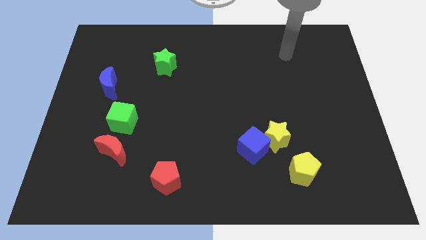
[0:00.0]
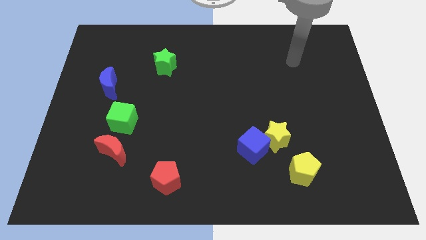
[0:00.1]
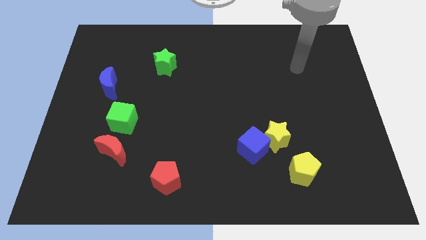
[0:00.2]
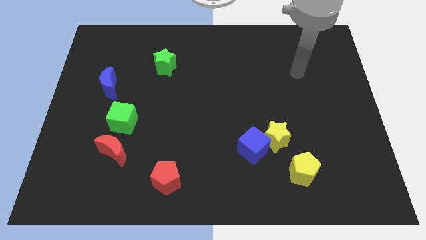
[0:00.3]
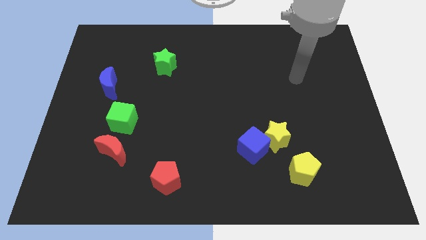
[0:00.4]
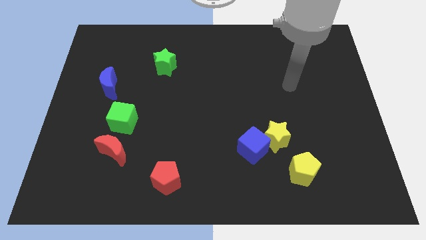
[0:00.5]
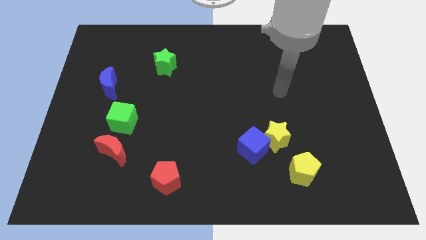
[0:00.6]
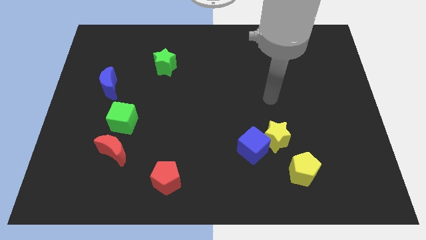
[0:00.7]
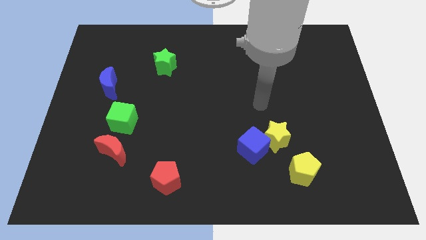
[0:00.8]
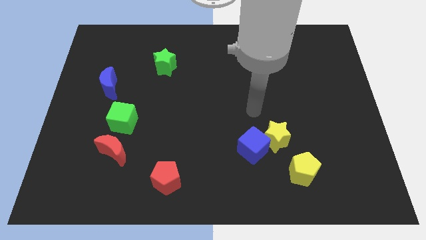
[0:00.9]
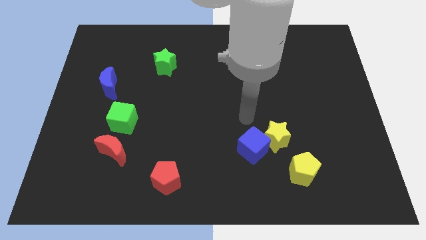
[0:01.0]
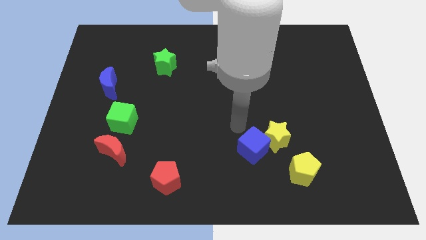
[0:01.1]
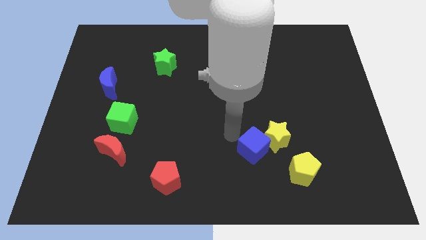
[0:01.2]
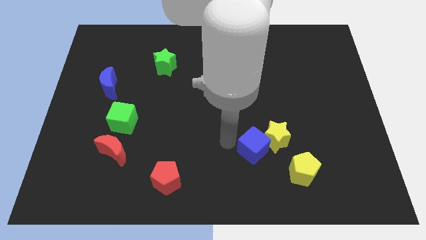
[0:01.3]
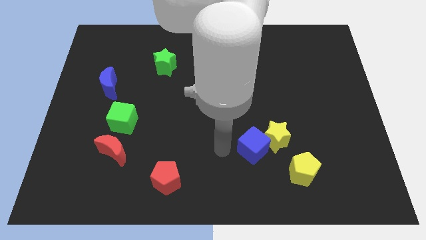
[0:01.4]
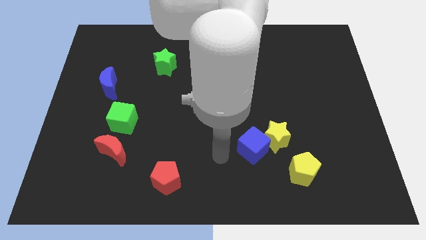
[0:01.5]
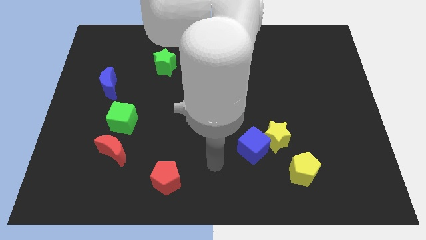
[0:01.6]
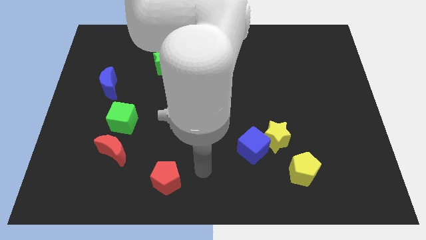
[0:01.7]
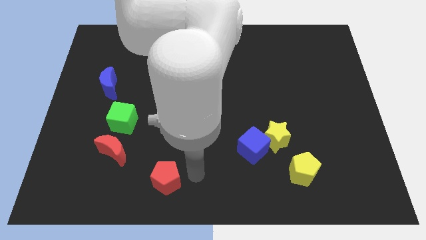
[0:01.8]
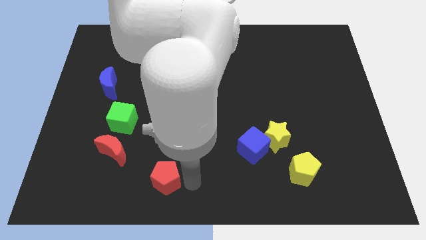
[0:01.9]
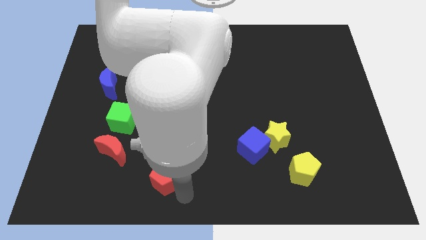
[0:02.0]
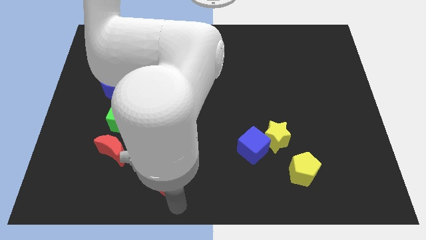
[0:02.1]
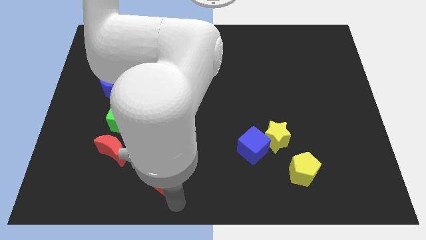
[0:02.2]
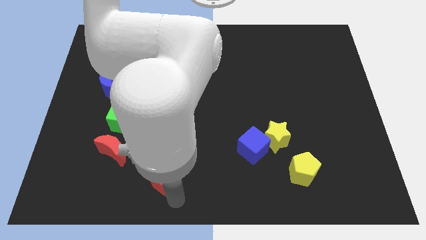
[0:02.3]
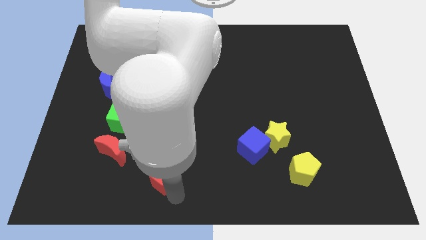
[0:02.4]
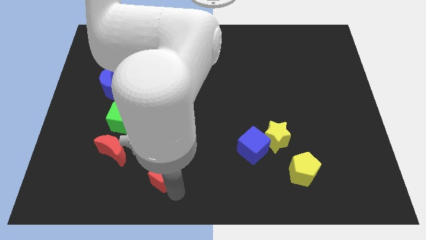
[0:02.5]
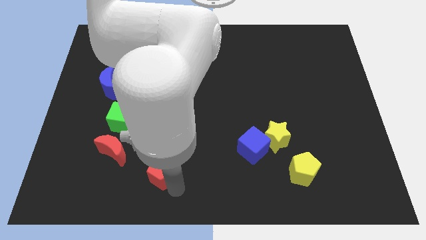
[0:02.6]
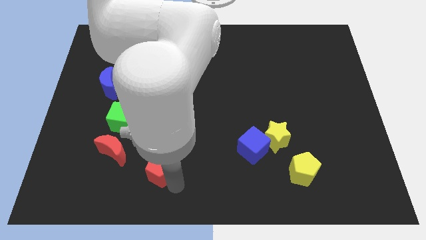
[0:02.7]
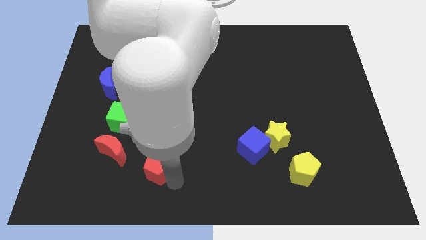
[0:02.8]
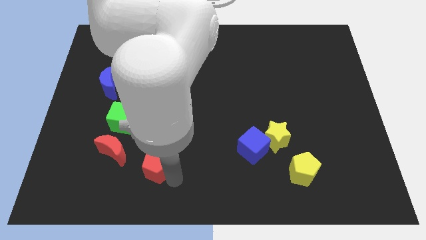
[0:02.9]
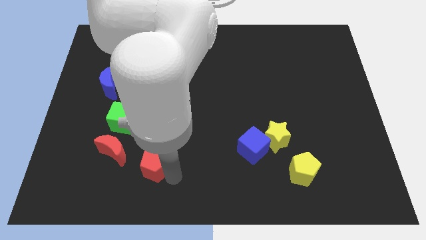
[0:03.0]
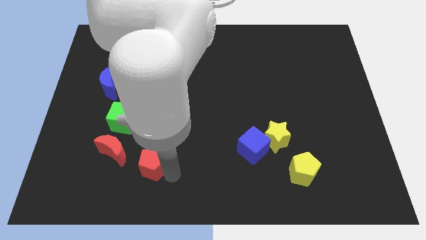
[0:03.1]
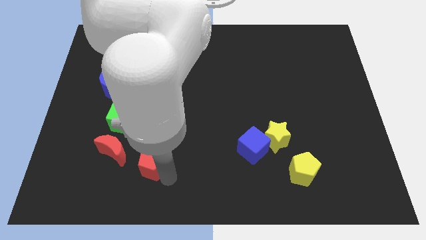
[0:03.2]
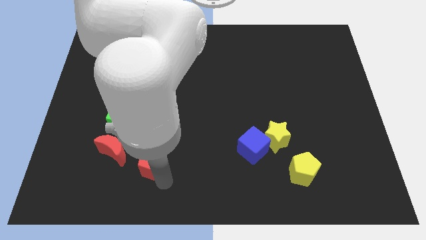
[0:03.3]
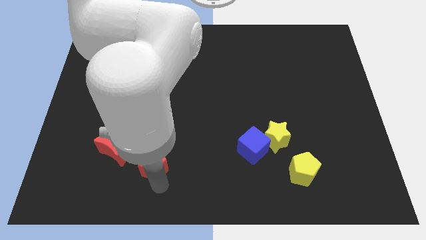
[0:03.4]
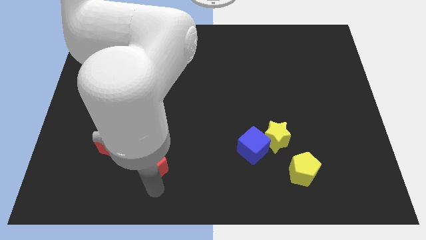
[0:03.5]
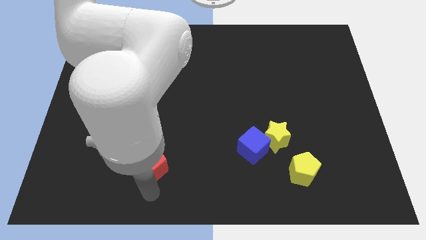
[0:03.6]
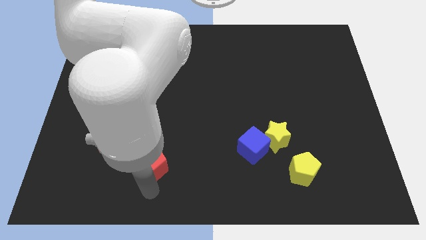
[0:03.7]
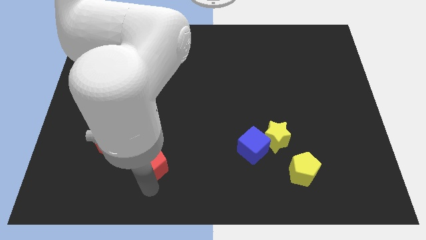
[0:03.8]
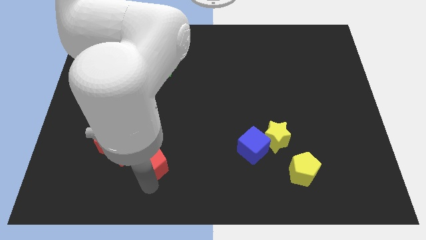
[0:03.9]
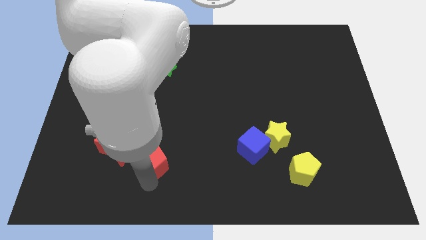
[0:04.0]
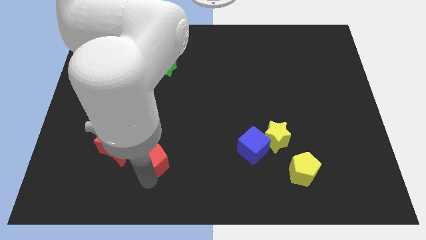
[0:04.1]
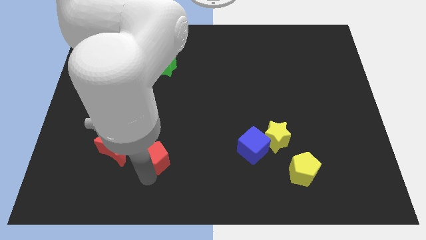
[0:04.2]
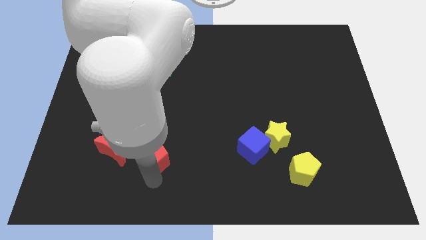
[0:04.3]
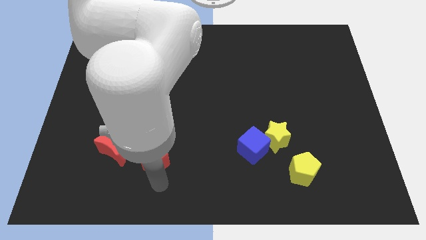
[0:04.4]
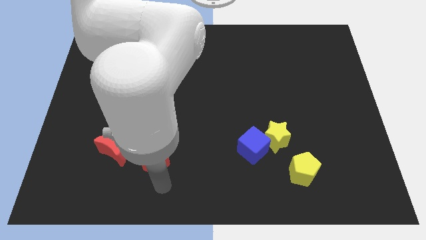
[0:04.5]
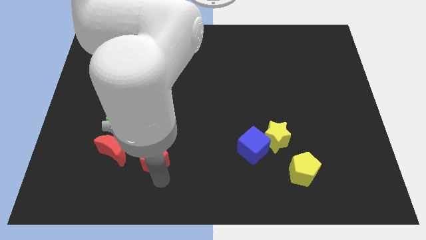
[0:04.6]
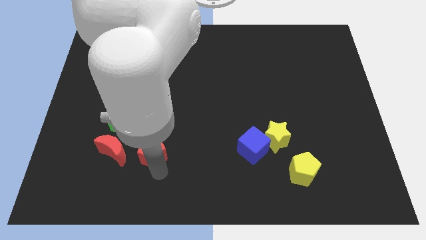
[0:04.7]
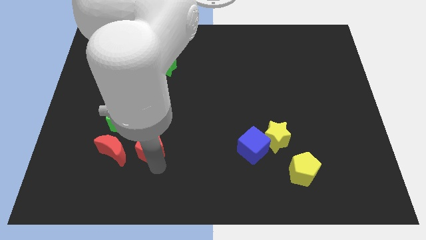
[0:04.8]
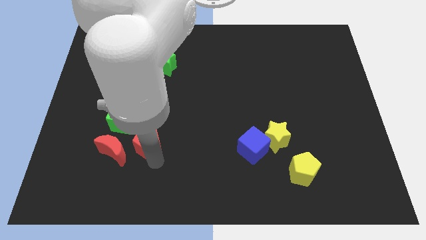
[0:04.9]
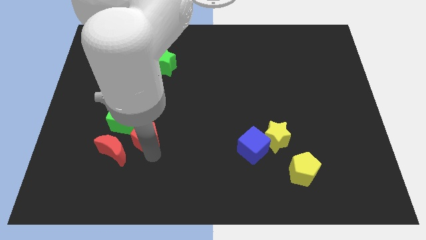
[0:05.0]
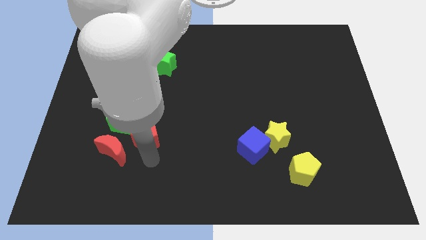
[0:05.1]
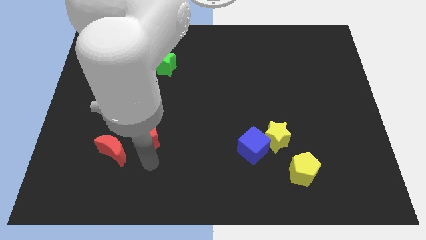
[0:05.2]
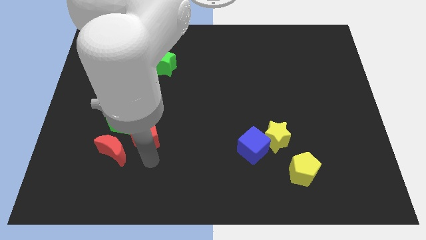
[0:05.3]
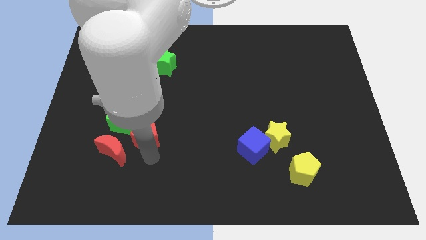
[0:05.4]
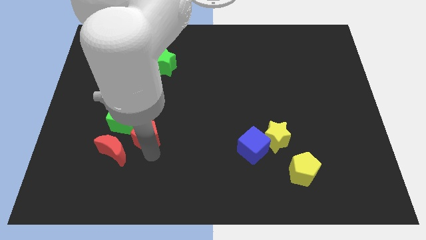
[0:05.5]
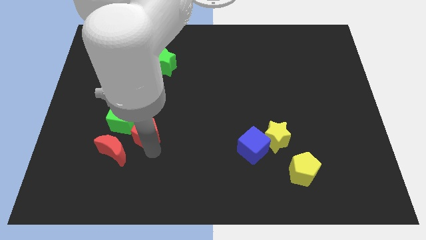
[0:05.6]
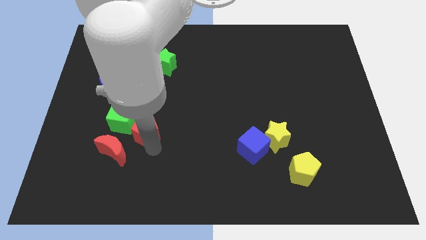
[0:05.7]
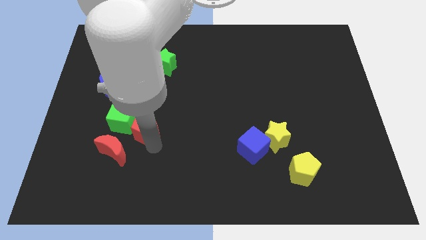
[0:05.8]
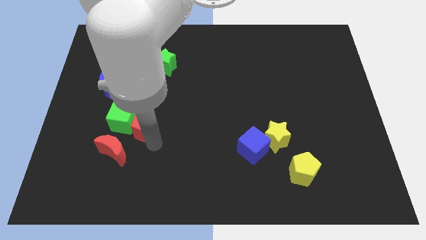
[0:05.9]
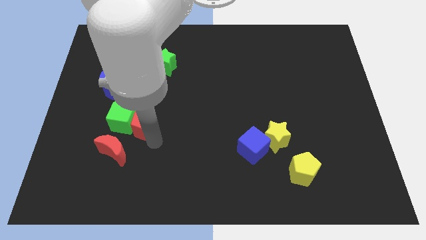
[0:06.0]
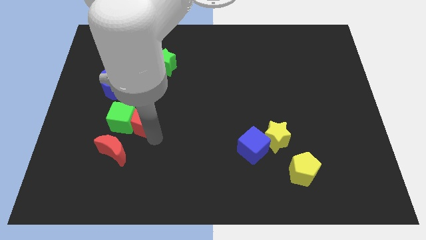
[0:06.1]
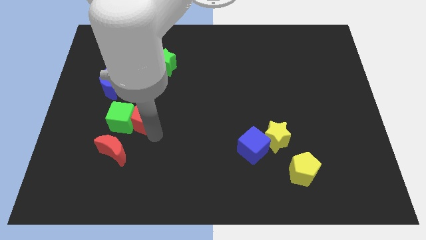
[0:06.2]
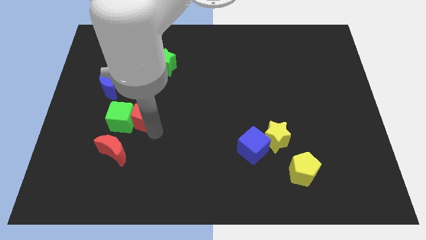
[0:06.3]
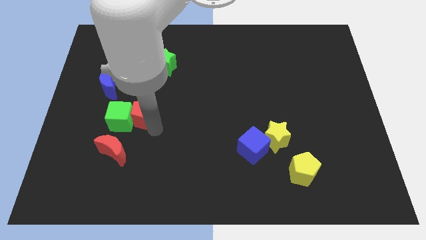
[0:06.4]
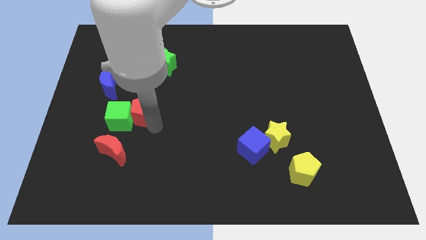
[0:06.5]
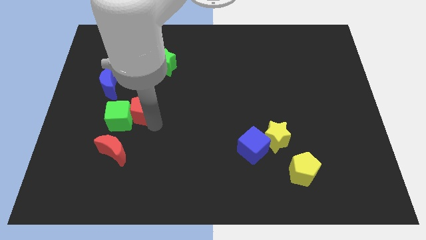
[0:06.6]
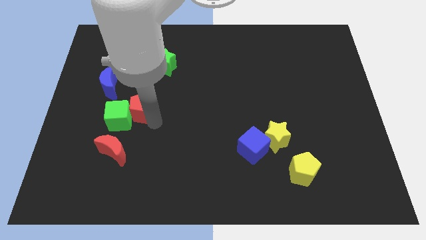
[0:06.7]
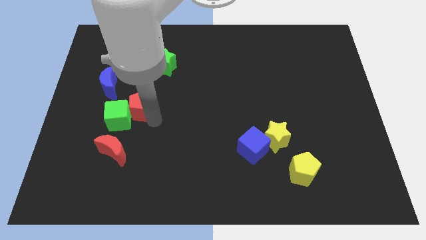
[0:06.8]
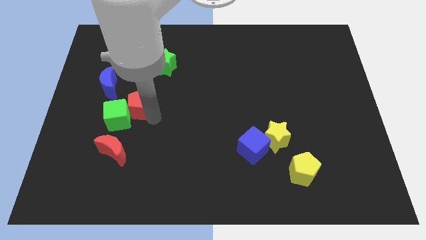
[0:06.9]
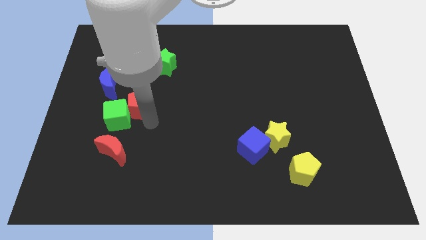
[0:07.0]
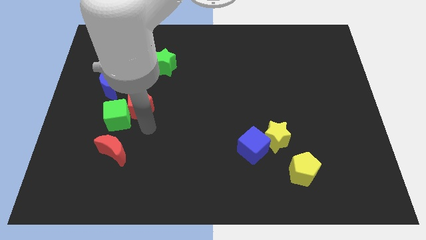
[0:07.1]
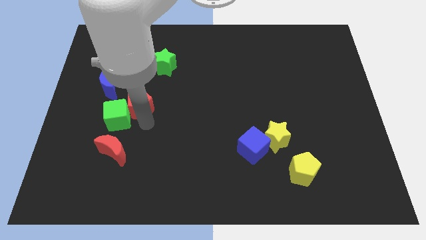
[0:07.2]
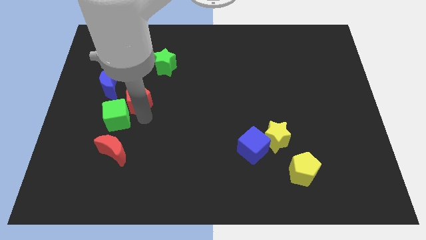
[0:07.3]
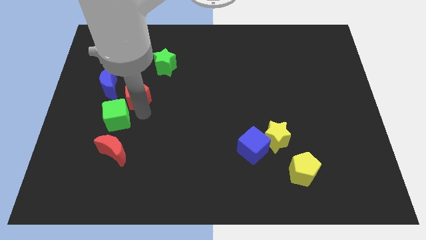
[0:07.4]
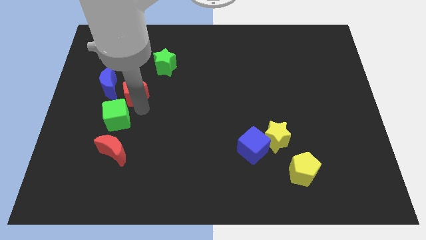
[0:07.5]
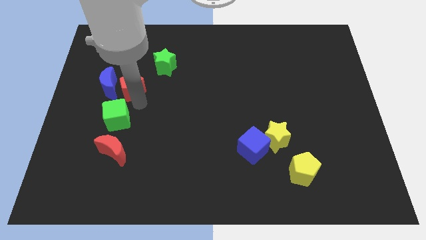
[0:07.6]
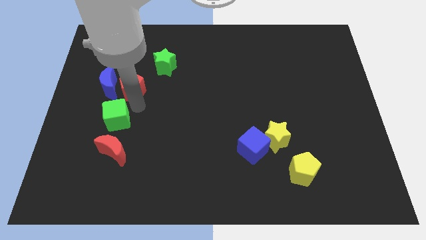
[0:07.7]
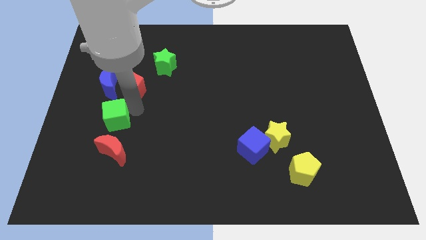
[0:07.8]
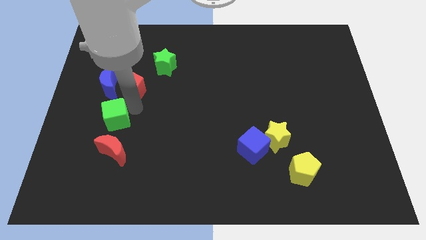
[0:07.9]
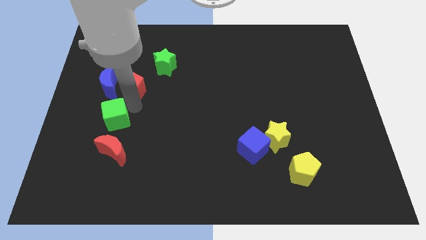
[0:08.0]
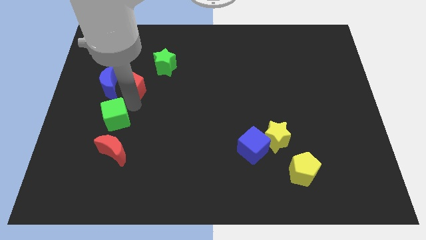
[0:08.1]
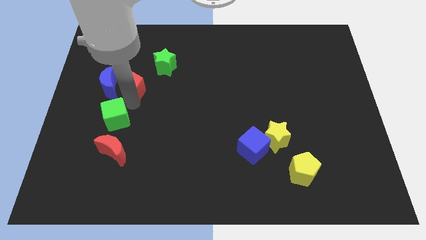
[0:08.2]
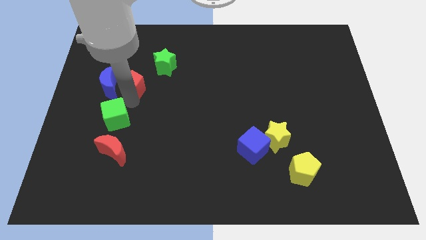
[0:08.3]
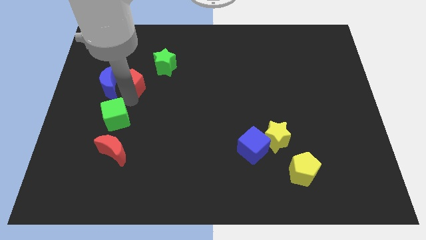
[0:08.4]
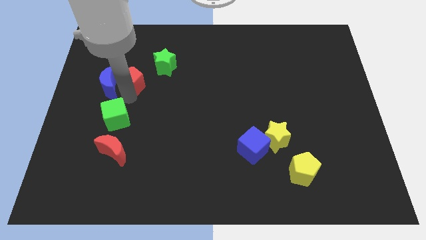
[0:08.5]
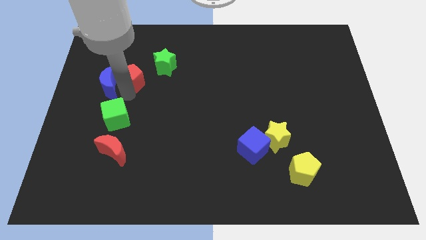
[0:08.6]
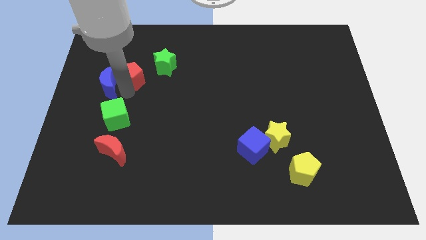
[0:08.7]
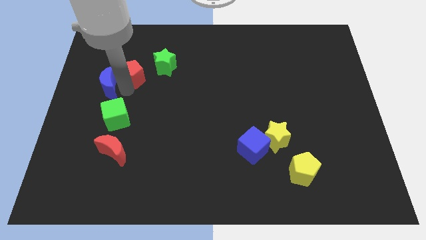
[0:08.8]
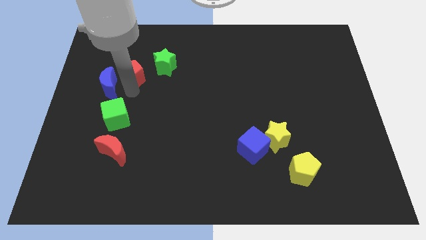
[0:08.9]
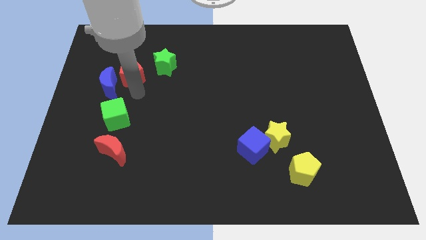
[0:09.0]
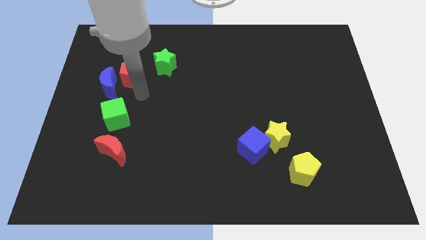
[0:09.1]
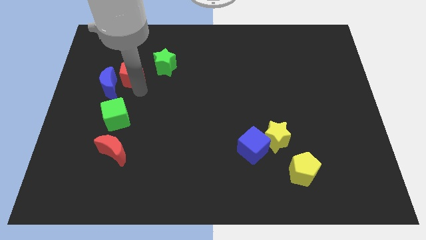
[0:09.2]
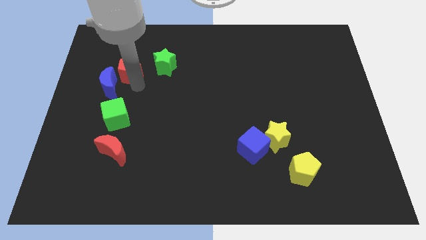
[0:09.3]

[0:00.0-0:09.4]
slide the red pentagon above the blue moon
